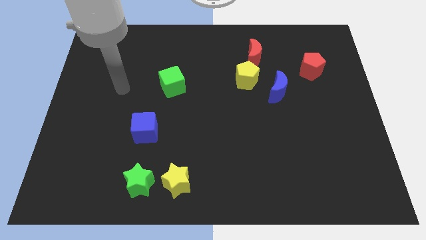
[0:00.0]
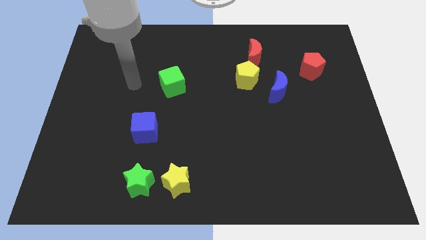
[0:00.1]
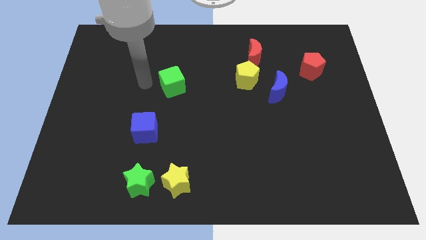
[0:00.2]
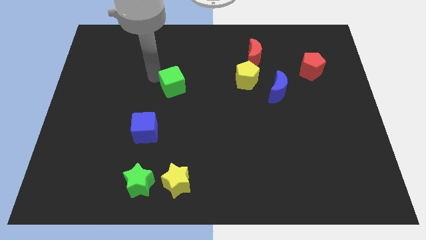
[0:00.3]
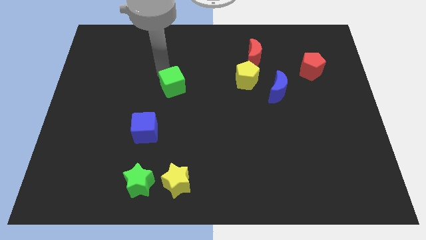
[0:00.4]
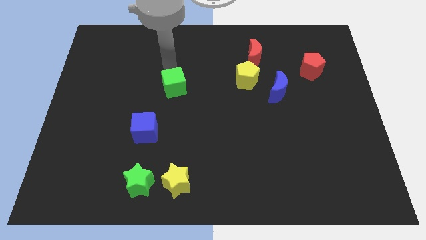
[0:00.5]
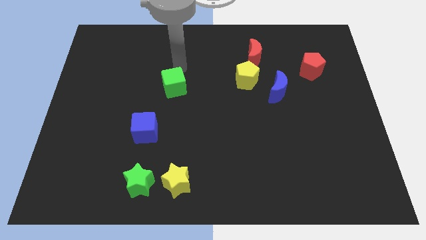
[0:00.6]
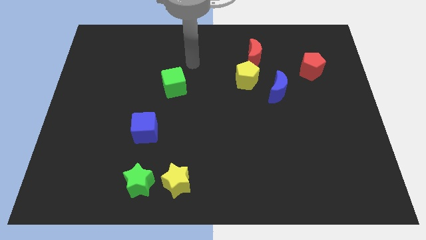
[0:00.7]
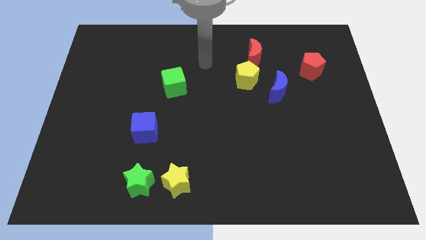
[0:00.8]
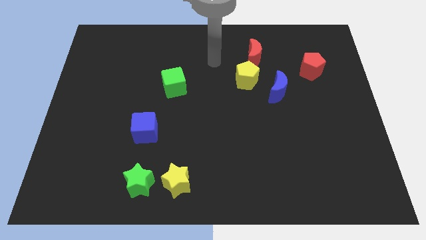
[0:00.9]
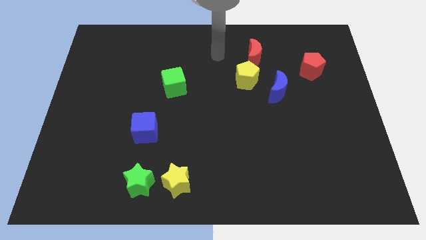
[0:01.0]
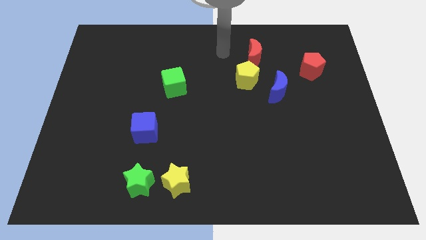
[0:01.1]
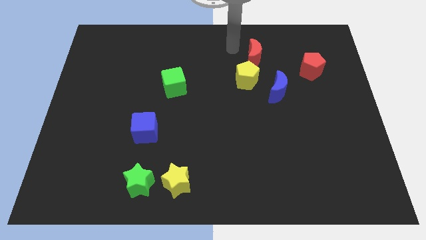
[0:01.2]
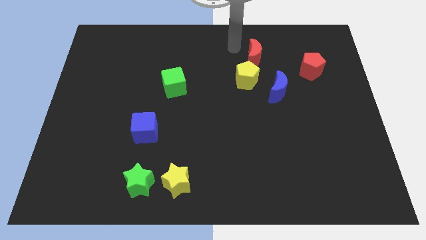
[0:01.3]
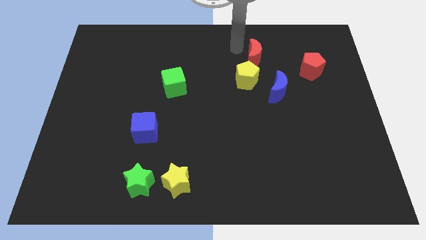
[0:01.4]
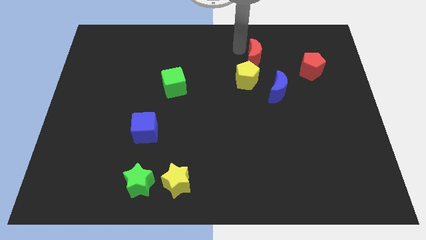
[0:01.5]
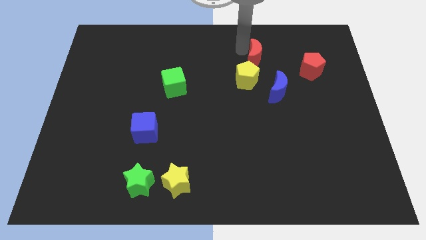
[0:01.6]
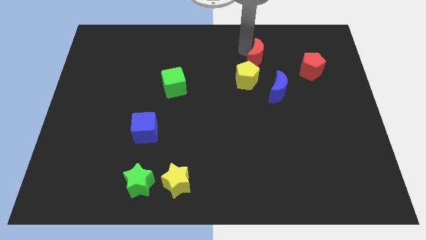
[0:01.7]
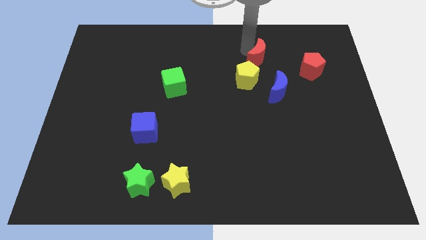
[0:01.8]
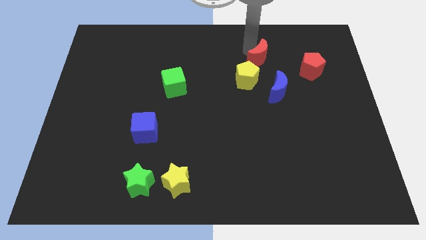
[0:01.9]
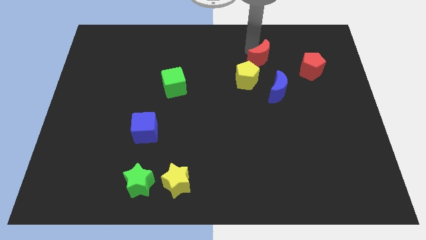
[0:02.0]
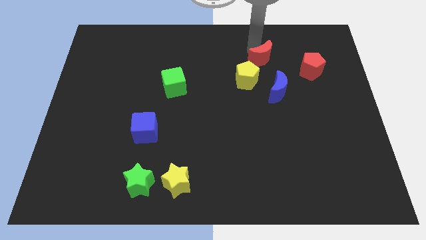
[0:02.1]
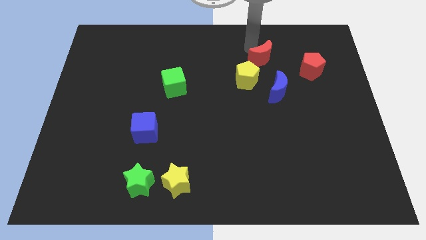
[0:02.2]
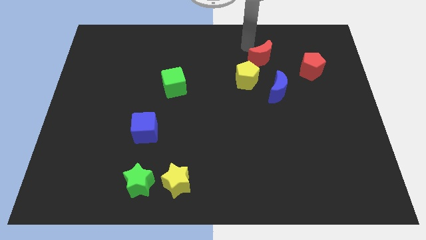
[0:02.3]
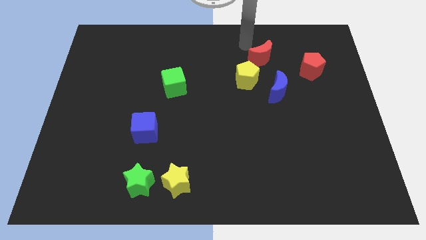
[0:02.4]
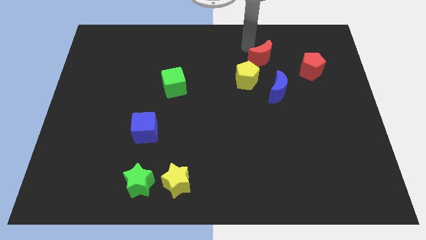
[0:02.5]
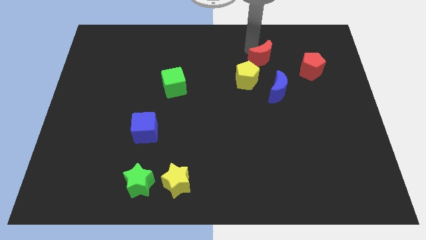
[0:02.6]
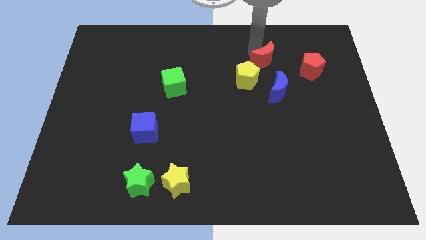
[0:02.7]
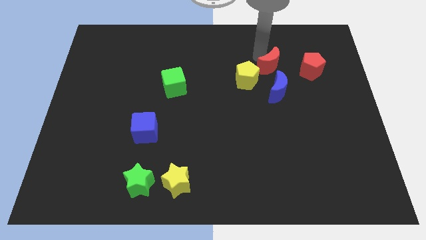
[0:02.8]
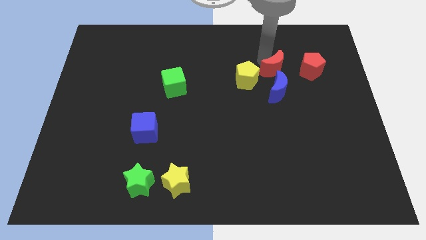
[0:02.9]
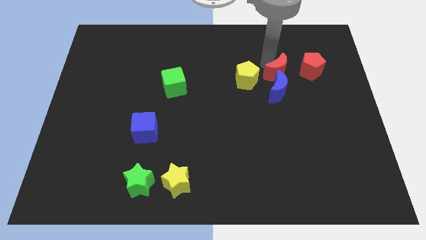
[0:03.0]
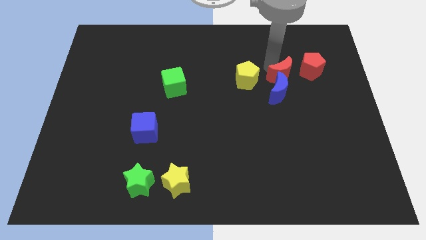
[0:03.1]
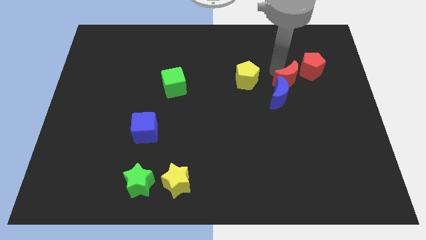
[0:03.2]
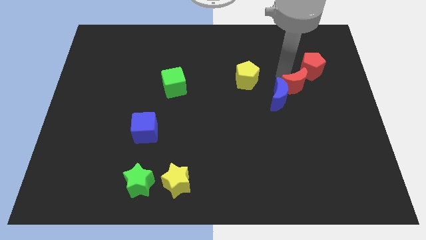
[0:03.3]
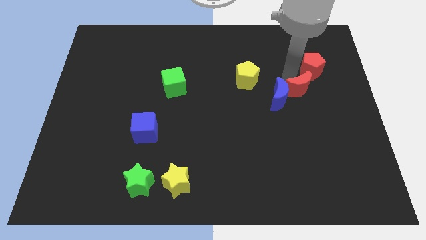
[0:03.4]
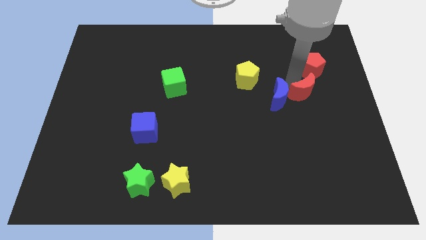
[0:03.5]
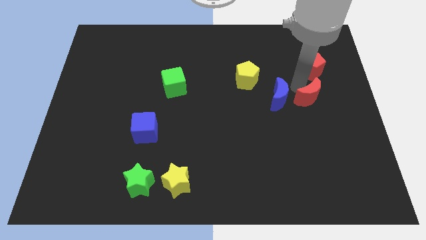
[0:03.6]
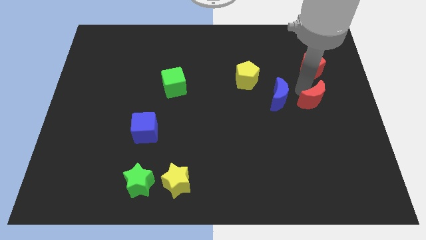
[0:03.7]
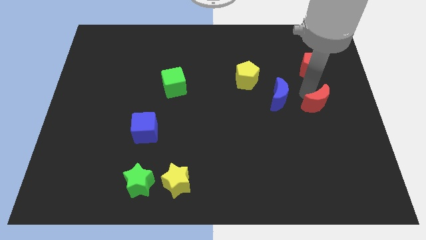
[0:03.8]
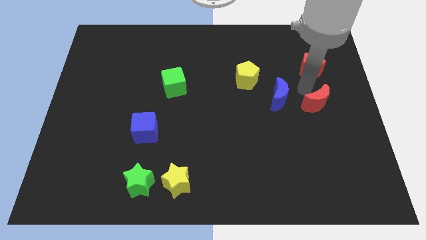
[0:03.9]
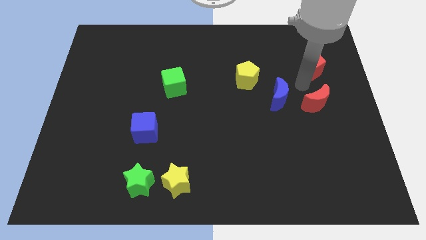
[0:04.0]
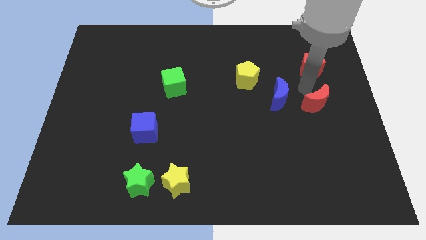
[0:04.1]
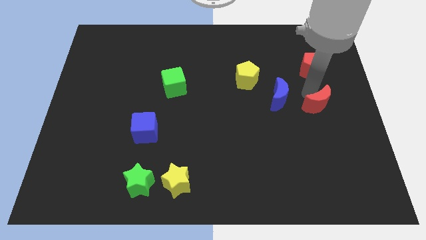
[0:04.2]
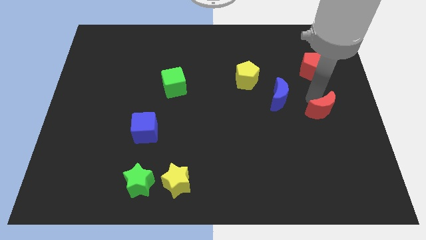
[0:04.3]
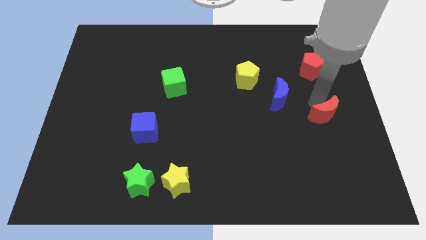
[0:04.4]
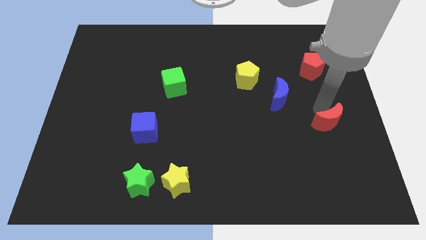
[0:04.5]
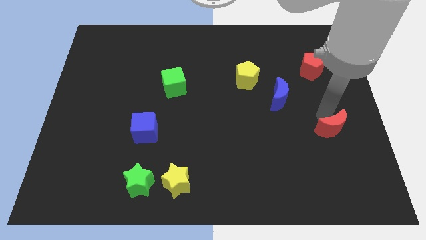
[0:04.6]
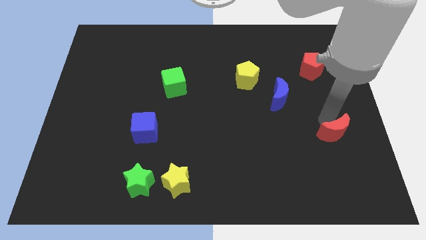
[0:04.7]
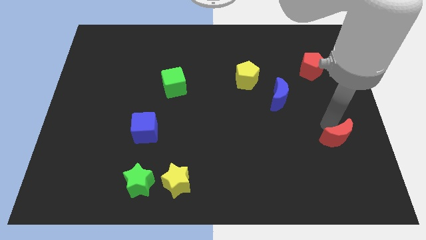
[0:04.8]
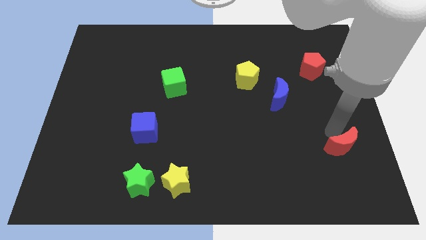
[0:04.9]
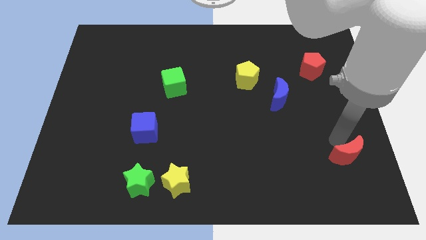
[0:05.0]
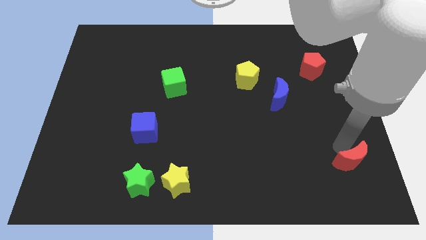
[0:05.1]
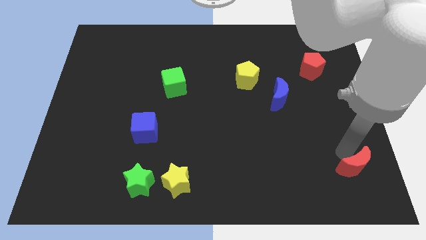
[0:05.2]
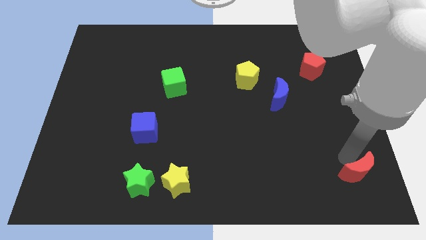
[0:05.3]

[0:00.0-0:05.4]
move the red moon to the lower right corner

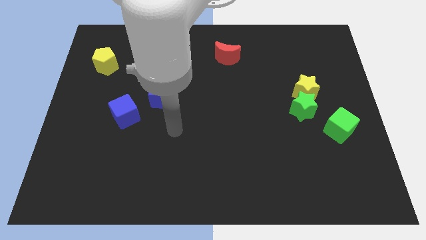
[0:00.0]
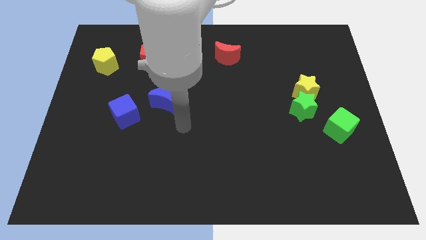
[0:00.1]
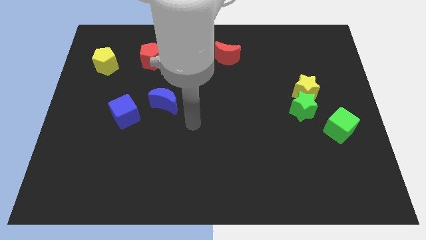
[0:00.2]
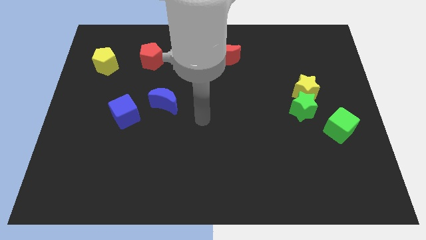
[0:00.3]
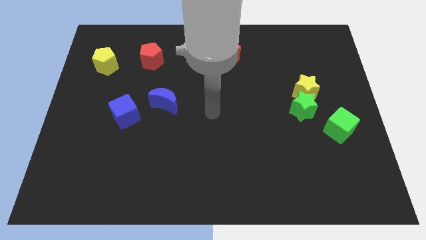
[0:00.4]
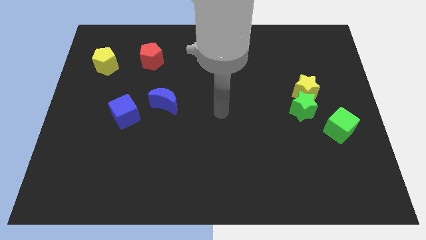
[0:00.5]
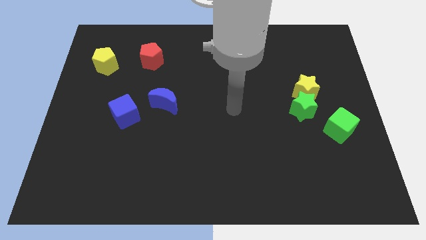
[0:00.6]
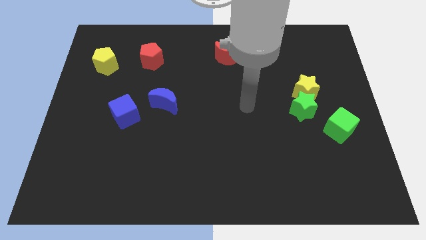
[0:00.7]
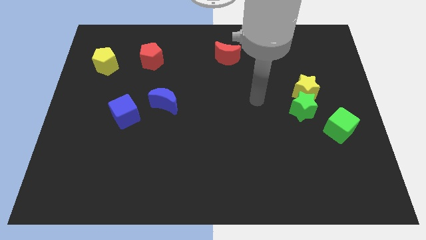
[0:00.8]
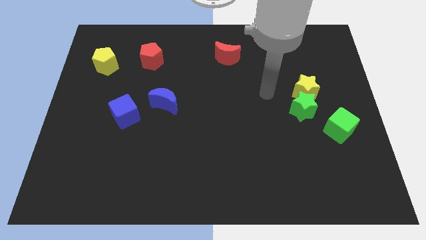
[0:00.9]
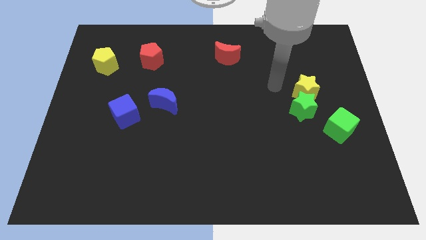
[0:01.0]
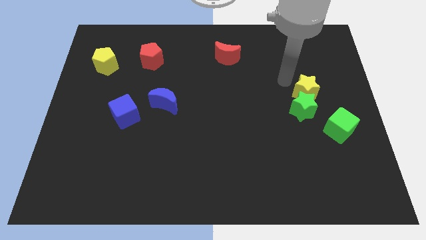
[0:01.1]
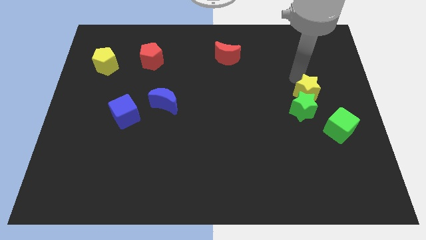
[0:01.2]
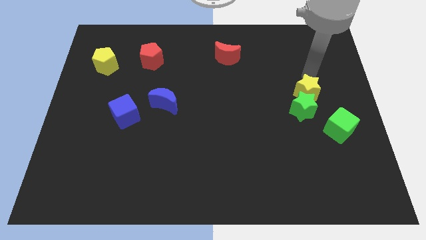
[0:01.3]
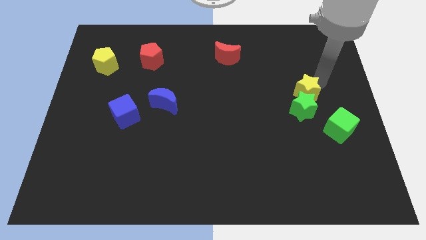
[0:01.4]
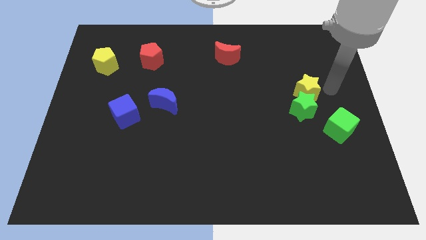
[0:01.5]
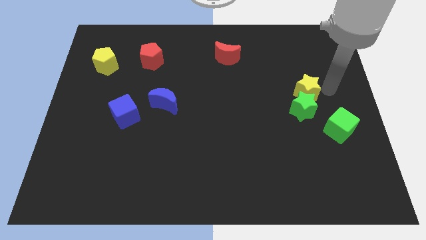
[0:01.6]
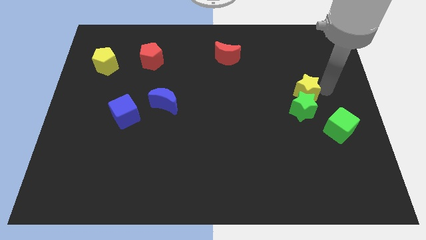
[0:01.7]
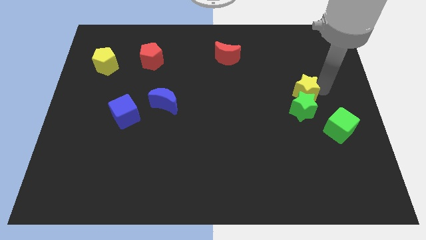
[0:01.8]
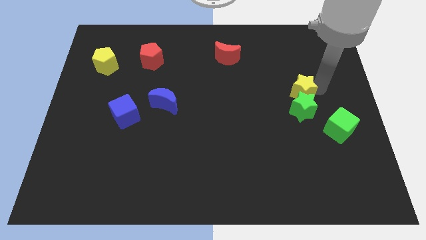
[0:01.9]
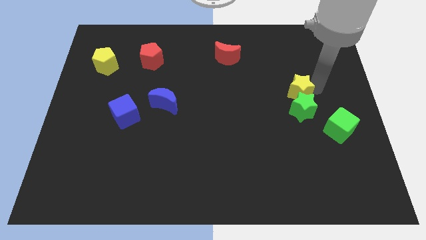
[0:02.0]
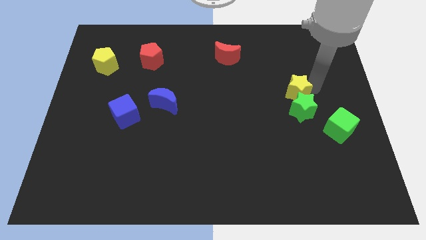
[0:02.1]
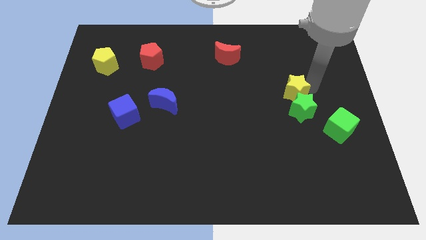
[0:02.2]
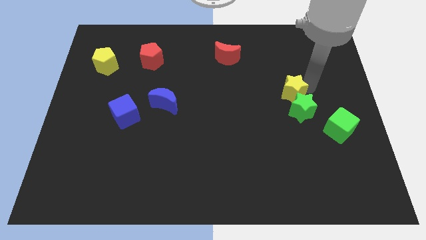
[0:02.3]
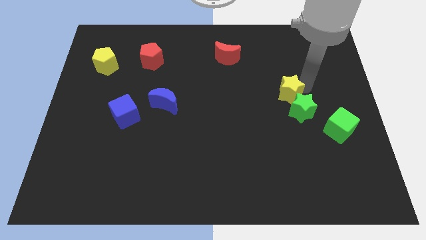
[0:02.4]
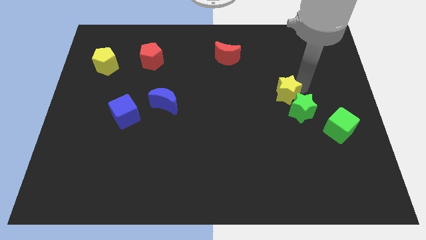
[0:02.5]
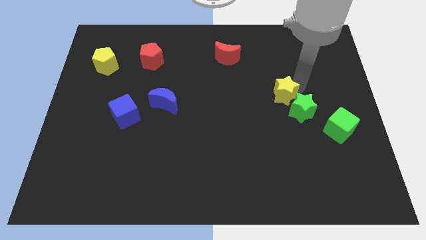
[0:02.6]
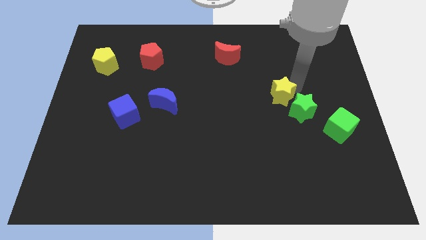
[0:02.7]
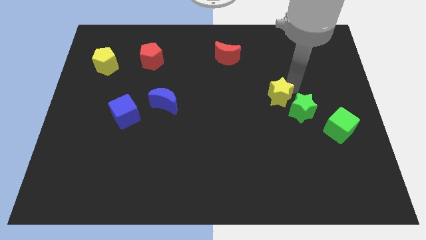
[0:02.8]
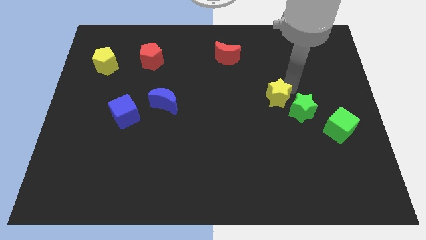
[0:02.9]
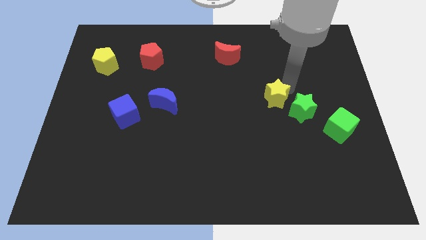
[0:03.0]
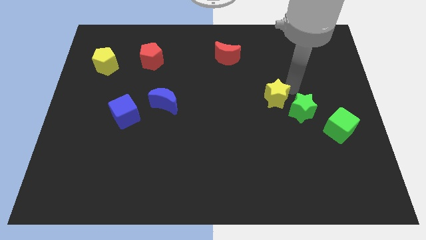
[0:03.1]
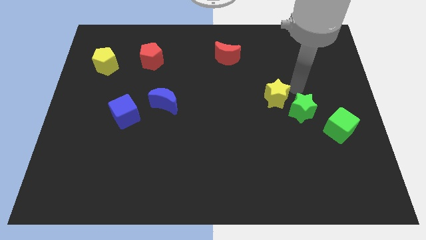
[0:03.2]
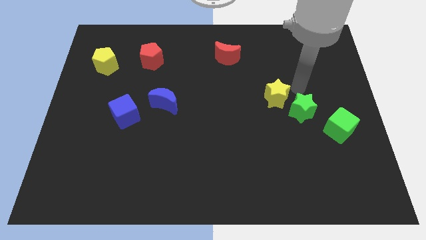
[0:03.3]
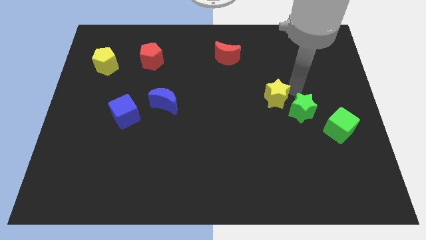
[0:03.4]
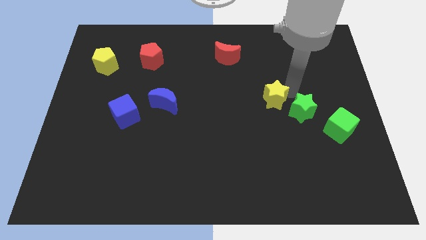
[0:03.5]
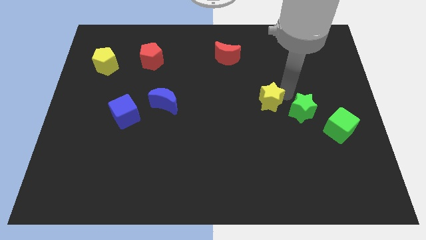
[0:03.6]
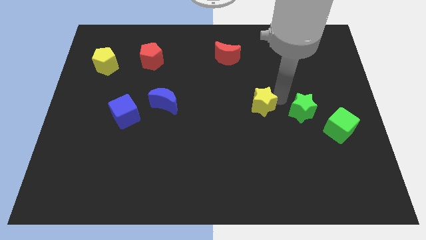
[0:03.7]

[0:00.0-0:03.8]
put the yellow star to the middle
